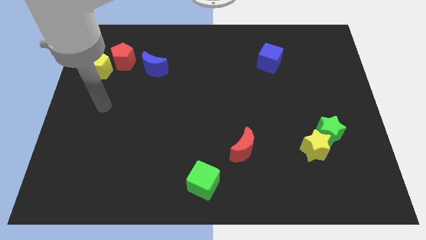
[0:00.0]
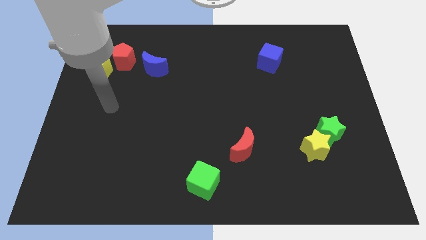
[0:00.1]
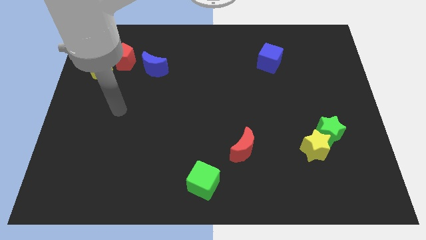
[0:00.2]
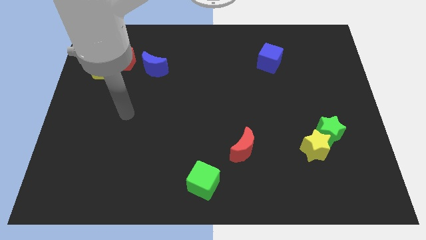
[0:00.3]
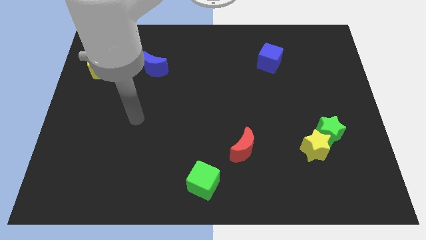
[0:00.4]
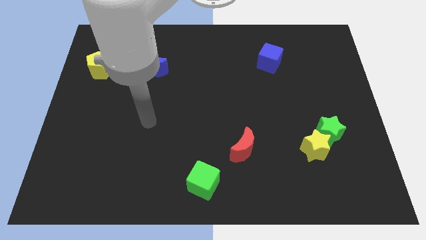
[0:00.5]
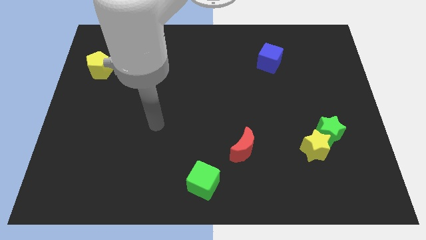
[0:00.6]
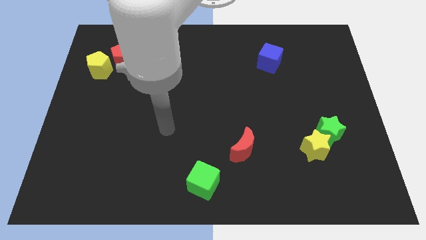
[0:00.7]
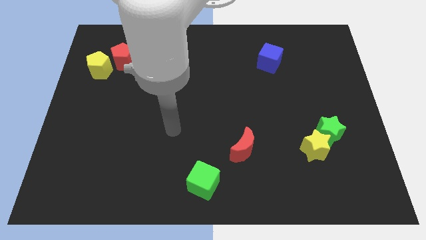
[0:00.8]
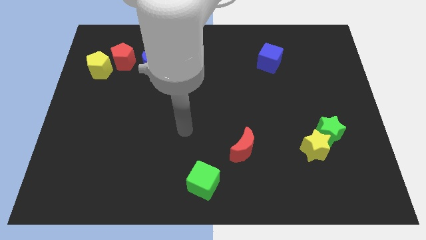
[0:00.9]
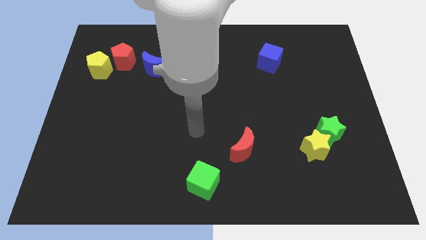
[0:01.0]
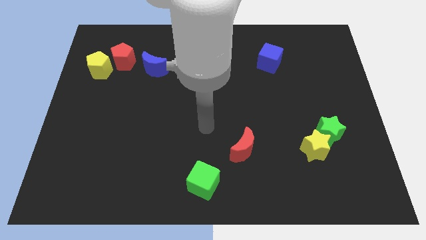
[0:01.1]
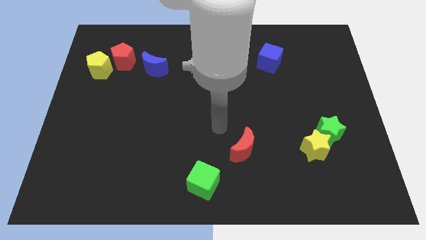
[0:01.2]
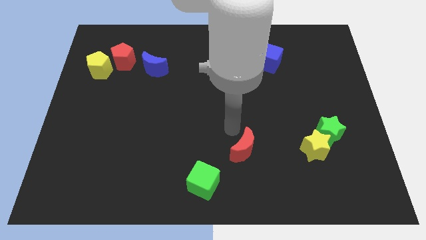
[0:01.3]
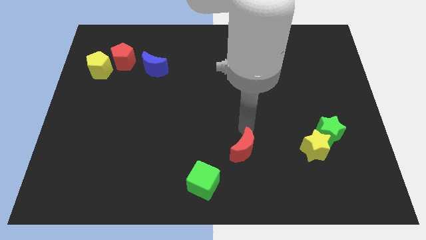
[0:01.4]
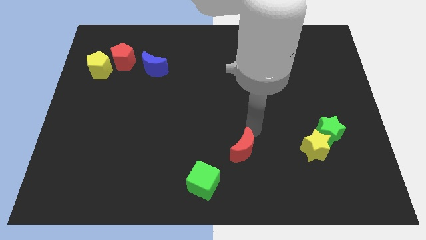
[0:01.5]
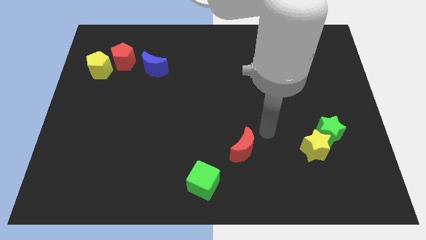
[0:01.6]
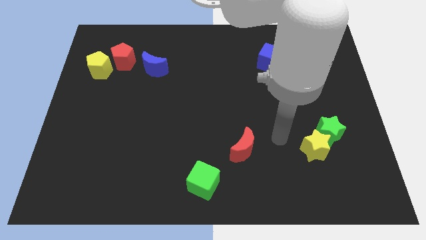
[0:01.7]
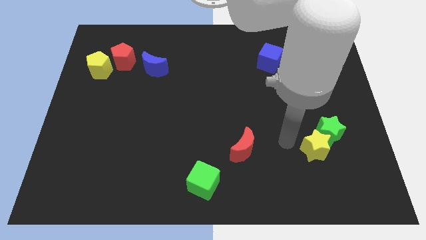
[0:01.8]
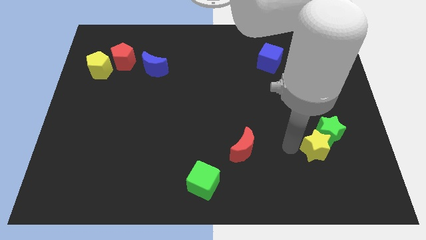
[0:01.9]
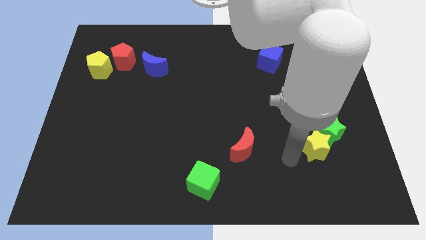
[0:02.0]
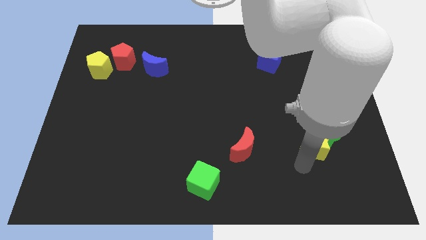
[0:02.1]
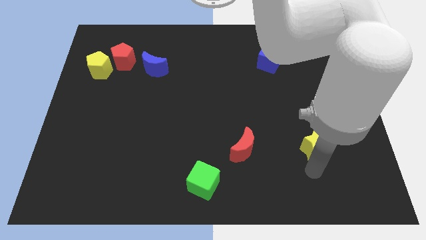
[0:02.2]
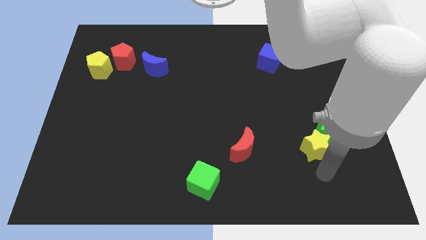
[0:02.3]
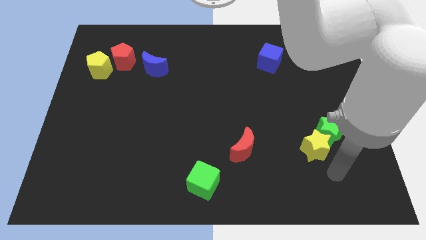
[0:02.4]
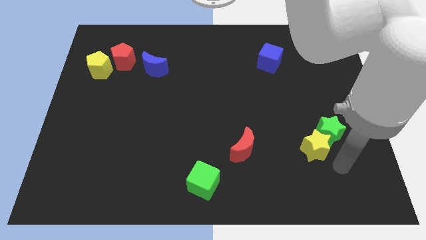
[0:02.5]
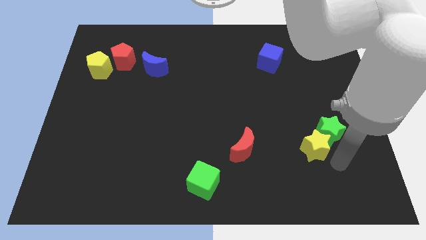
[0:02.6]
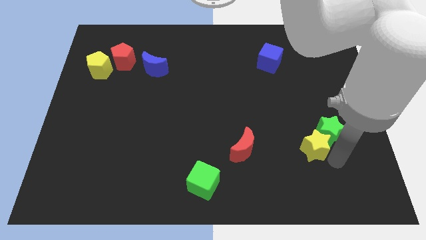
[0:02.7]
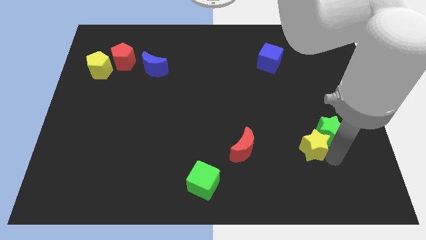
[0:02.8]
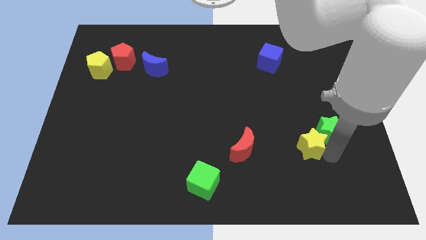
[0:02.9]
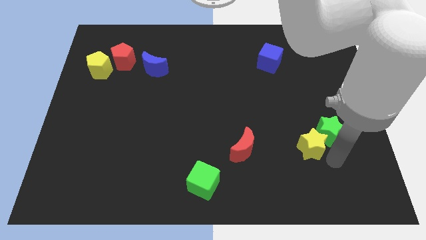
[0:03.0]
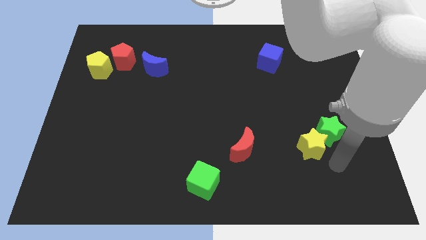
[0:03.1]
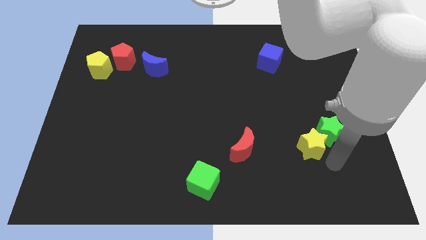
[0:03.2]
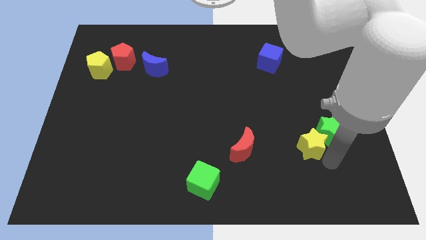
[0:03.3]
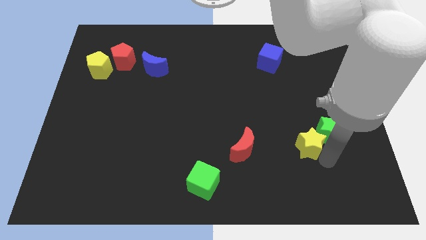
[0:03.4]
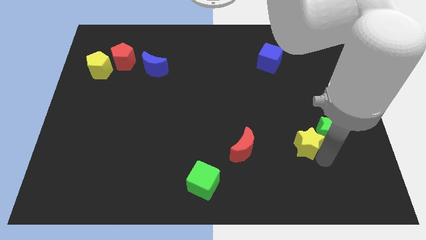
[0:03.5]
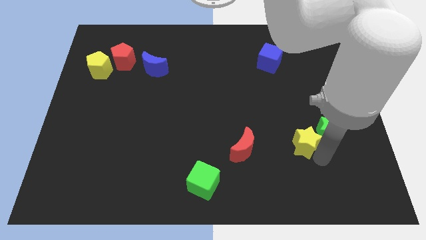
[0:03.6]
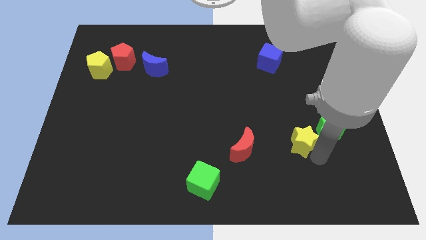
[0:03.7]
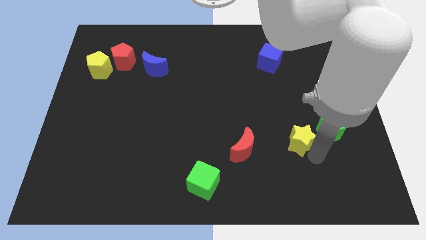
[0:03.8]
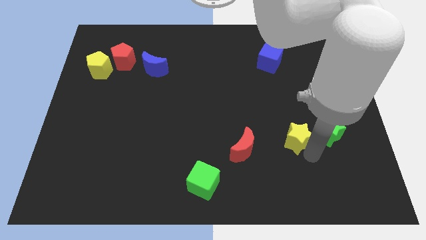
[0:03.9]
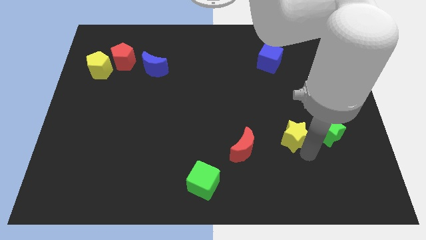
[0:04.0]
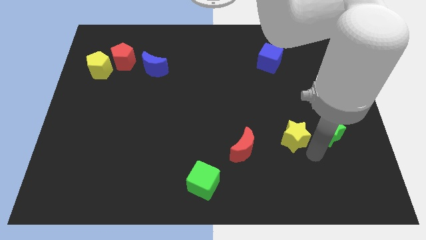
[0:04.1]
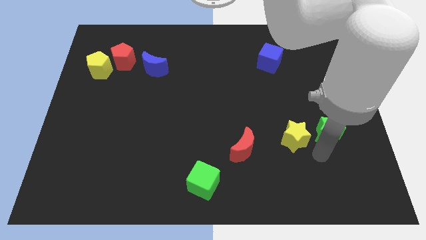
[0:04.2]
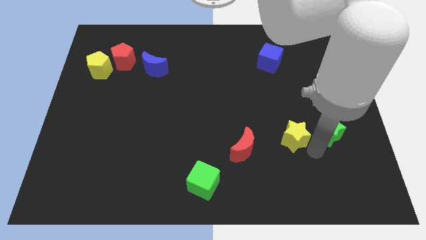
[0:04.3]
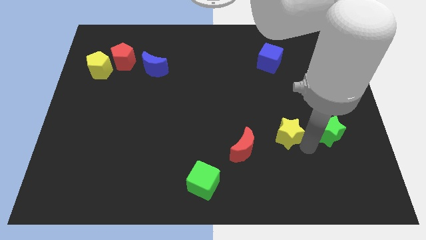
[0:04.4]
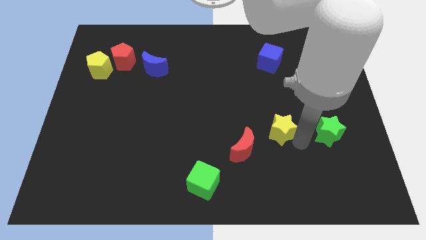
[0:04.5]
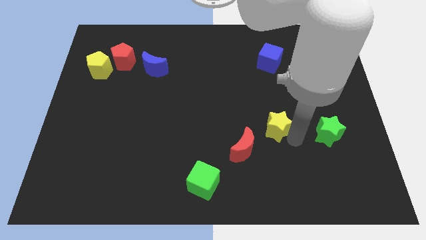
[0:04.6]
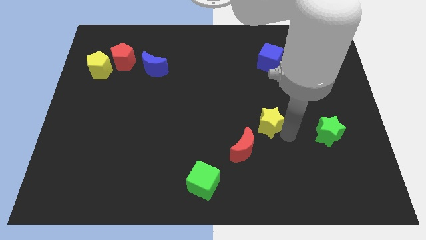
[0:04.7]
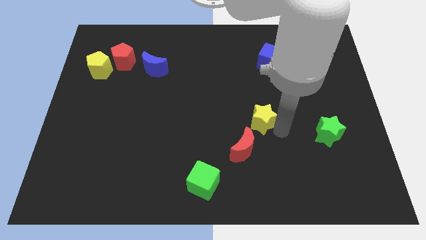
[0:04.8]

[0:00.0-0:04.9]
move the yellow star to the middle

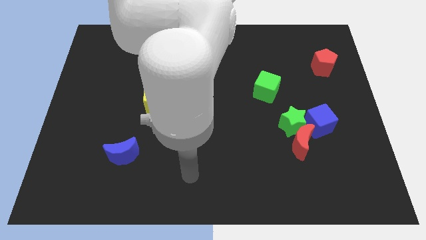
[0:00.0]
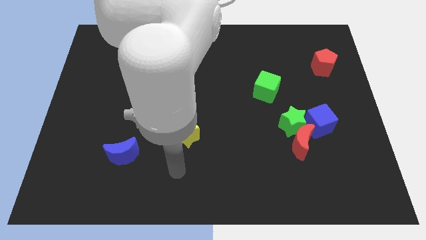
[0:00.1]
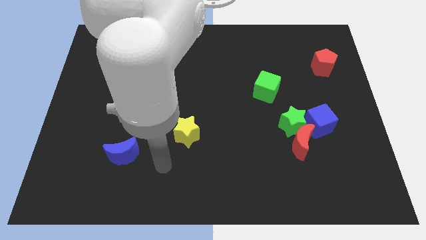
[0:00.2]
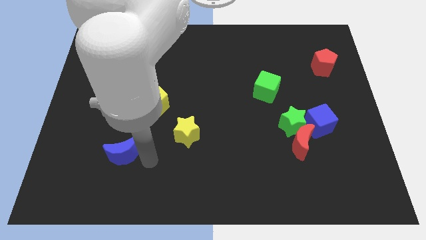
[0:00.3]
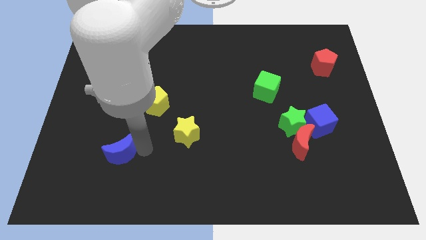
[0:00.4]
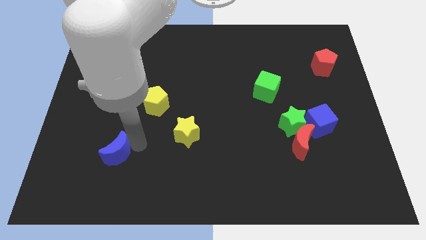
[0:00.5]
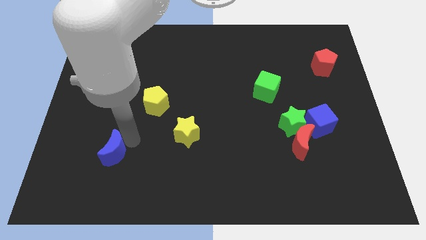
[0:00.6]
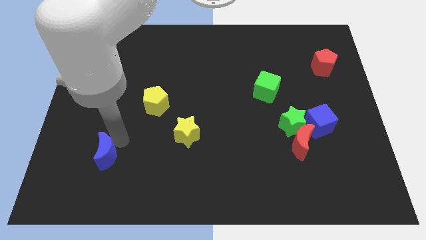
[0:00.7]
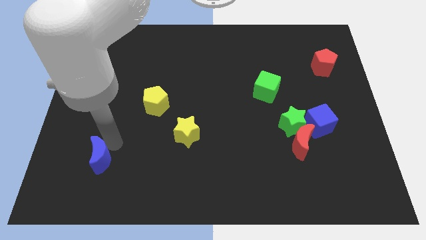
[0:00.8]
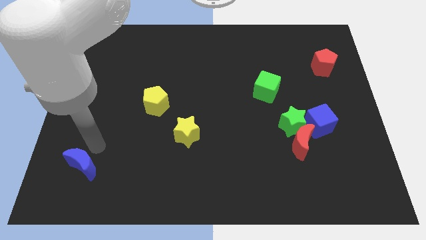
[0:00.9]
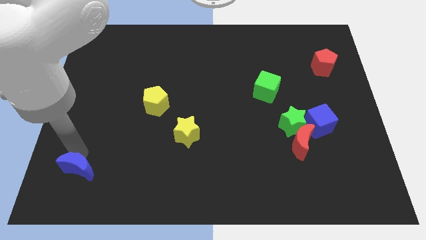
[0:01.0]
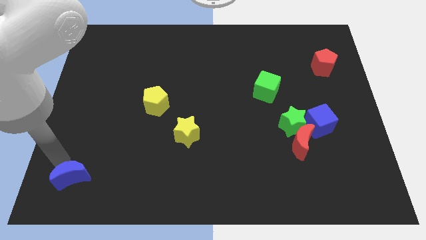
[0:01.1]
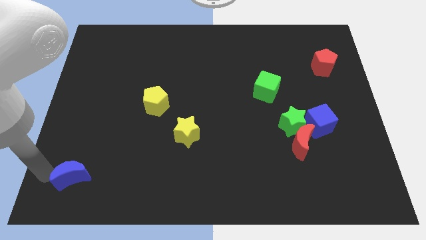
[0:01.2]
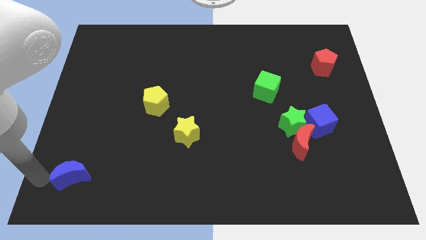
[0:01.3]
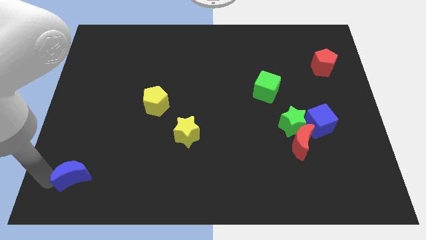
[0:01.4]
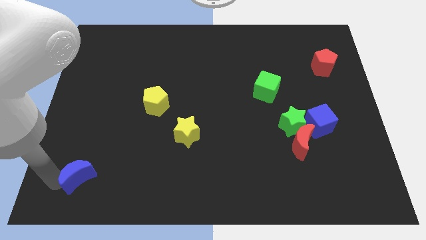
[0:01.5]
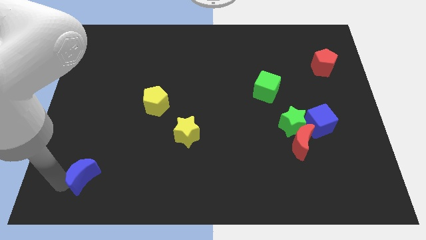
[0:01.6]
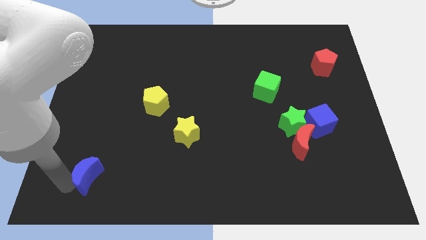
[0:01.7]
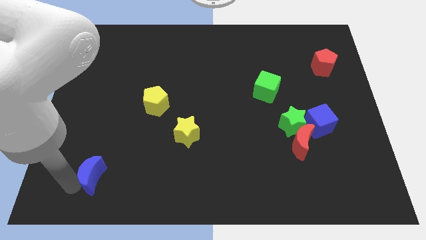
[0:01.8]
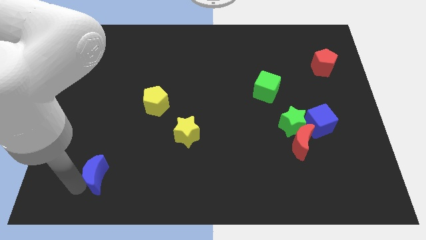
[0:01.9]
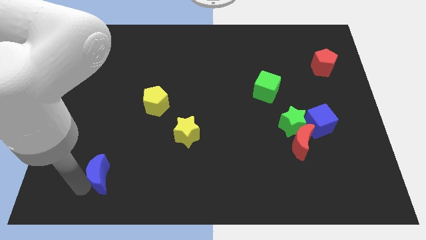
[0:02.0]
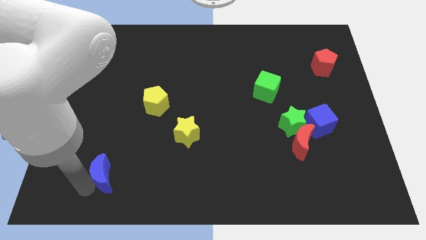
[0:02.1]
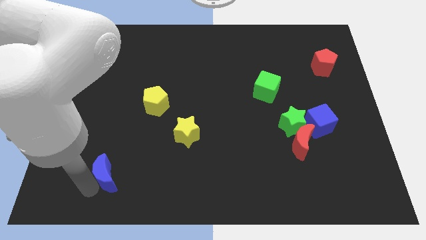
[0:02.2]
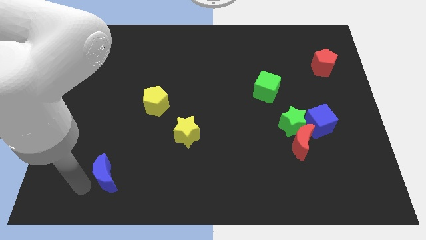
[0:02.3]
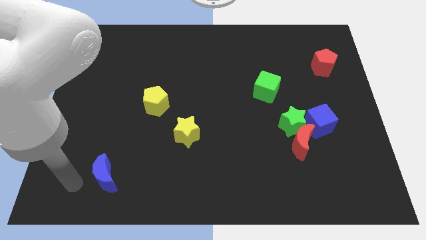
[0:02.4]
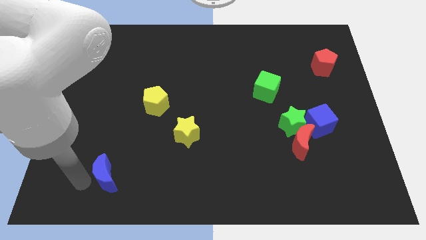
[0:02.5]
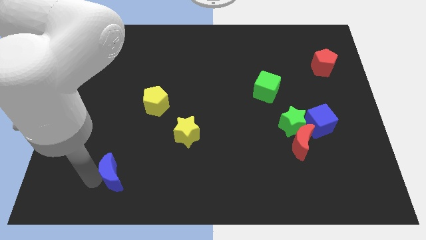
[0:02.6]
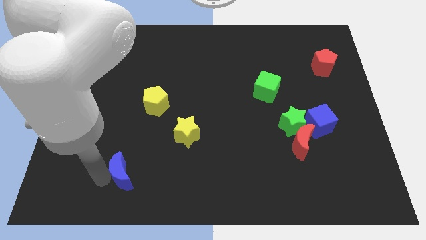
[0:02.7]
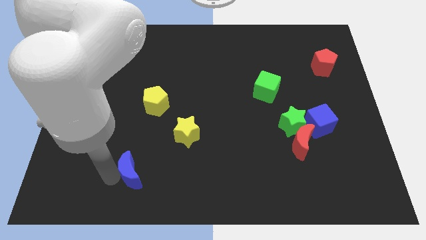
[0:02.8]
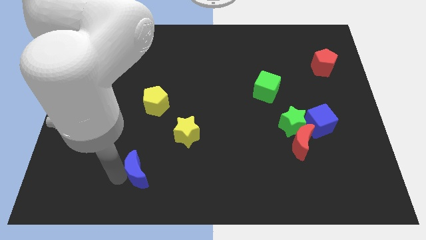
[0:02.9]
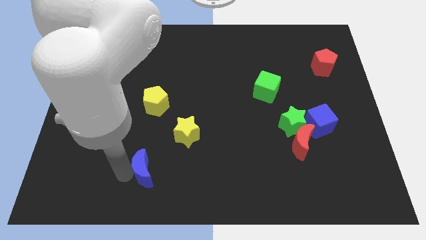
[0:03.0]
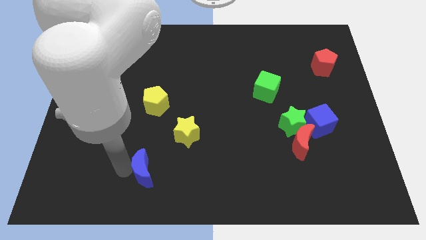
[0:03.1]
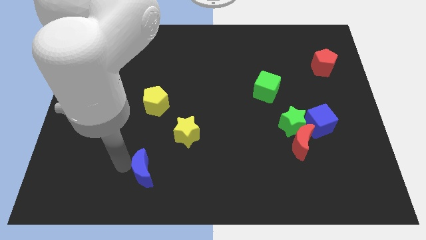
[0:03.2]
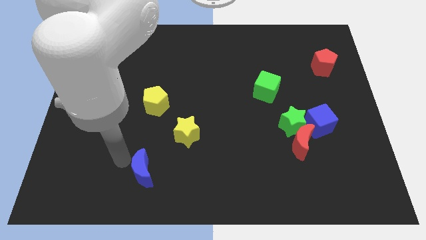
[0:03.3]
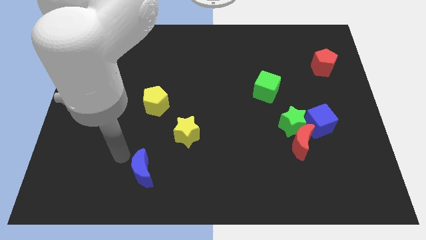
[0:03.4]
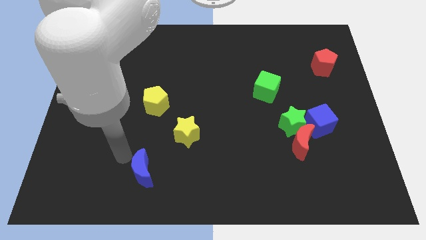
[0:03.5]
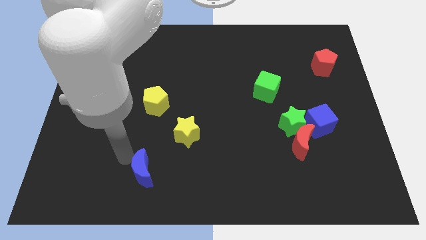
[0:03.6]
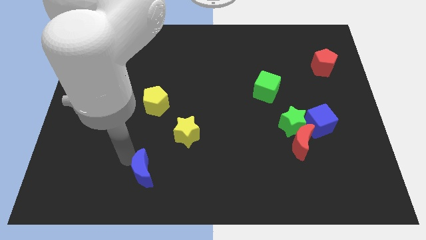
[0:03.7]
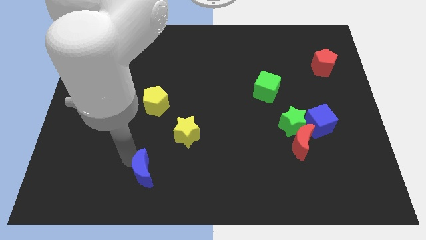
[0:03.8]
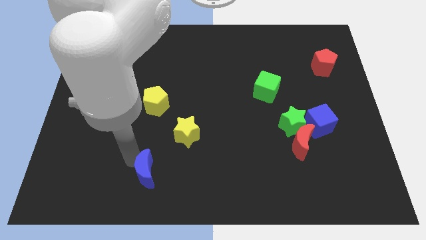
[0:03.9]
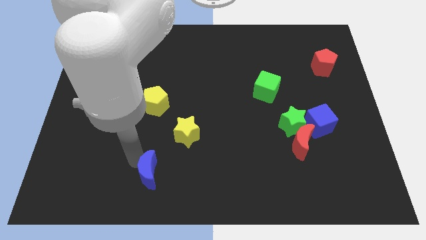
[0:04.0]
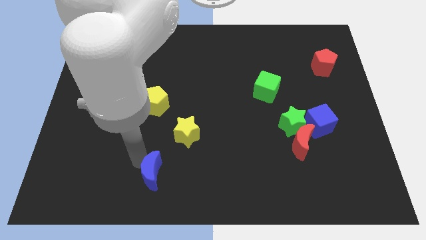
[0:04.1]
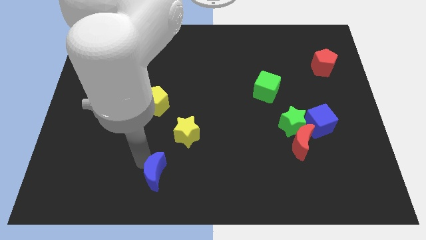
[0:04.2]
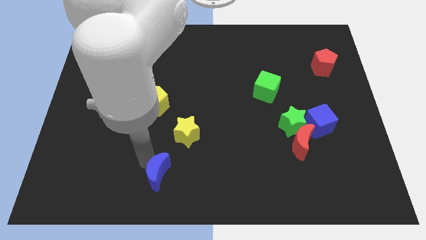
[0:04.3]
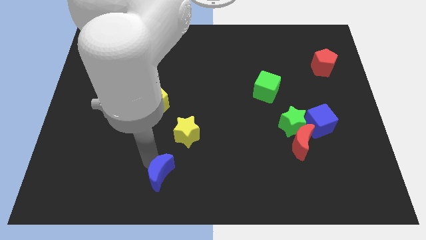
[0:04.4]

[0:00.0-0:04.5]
push the blue moon to the bottom side
